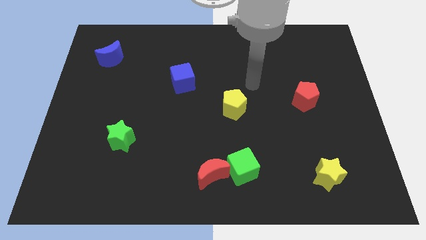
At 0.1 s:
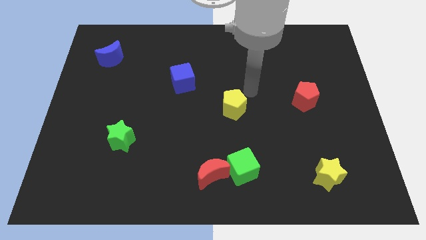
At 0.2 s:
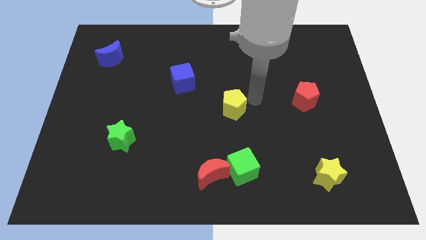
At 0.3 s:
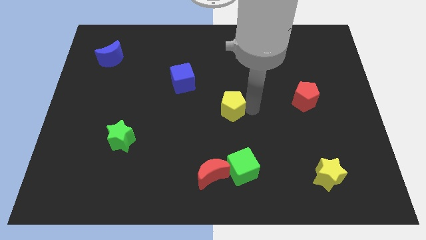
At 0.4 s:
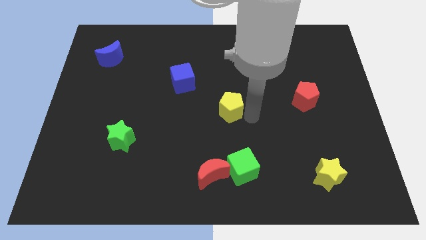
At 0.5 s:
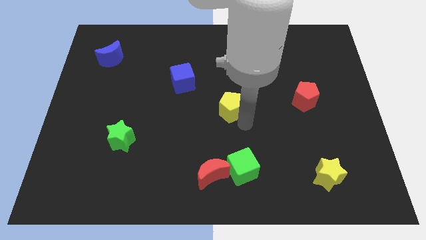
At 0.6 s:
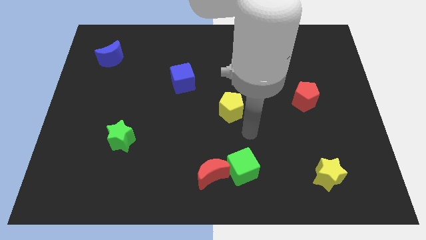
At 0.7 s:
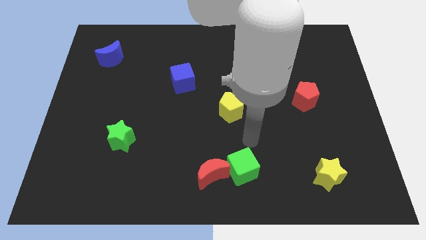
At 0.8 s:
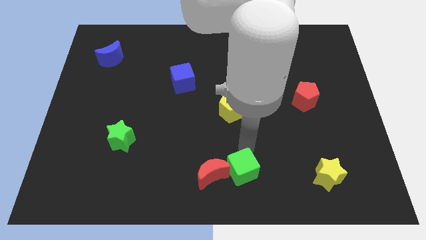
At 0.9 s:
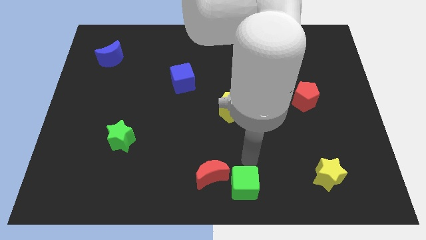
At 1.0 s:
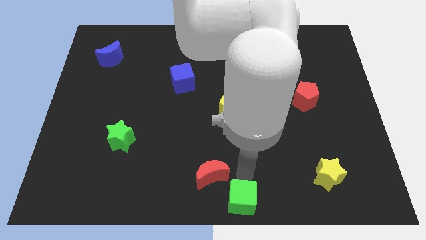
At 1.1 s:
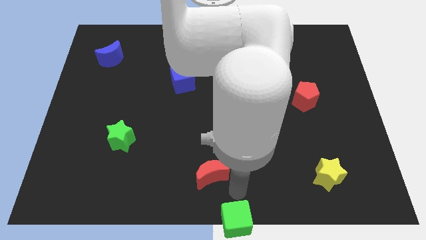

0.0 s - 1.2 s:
move the red moon away from the green cube

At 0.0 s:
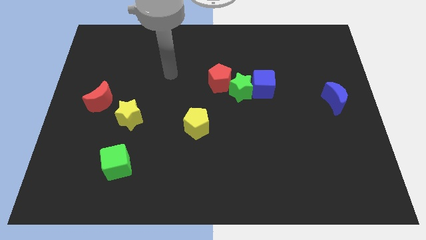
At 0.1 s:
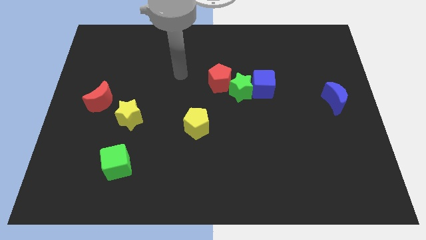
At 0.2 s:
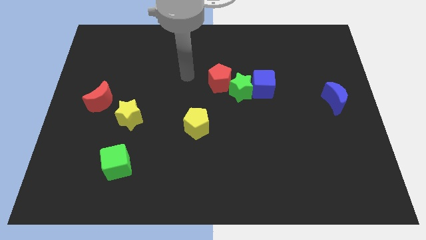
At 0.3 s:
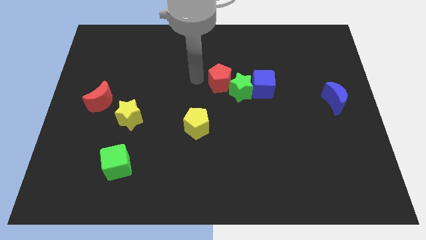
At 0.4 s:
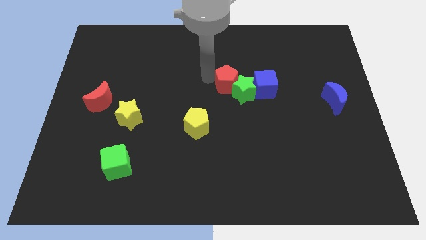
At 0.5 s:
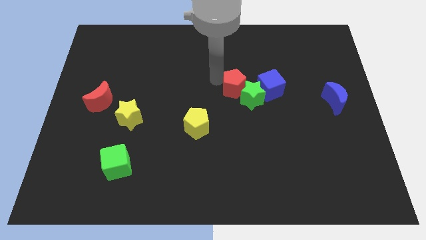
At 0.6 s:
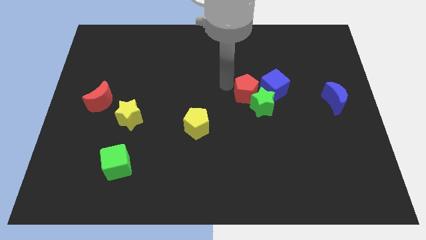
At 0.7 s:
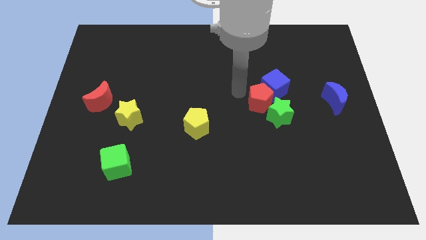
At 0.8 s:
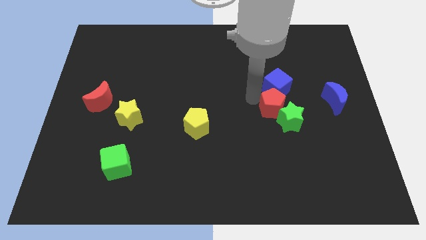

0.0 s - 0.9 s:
separate the blue cube from the green star

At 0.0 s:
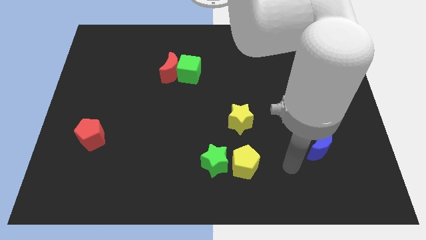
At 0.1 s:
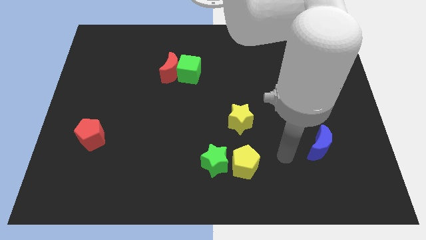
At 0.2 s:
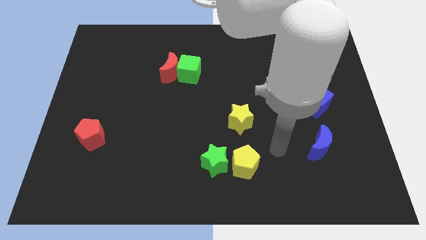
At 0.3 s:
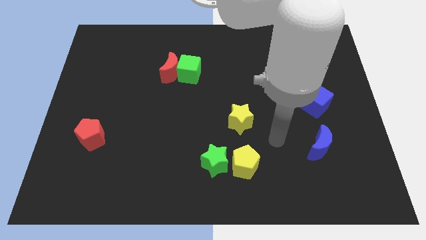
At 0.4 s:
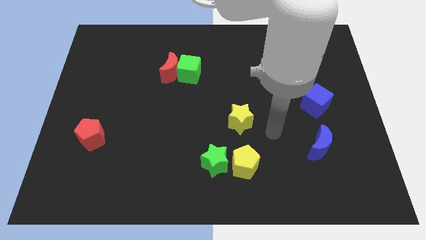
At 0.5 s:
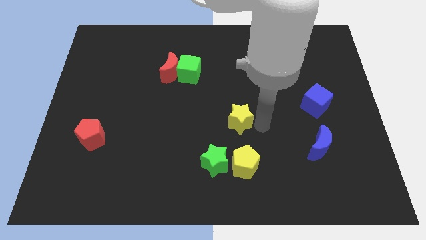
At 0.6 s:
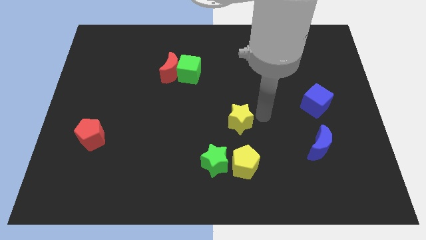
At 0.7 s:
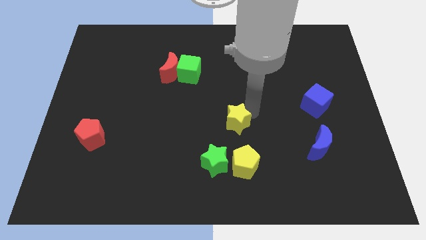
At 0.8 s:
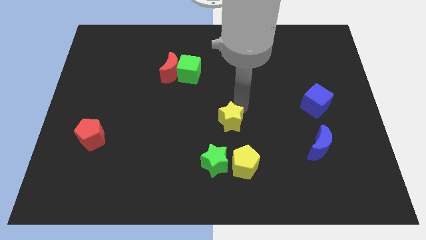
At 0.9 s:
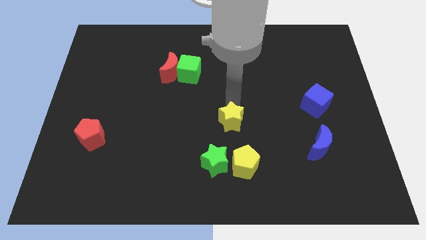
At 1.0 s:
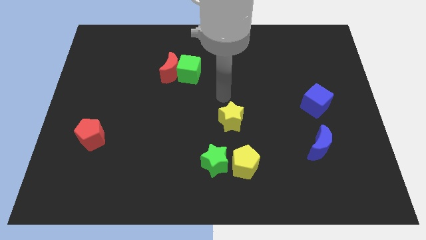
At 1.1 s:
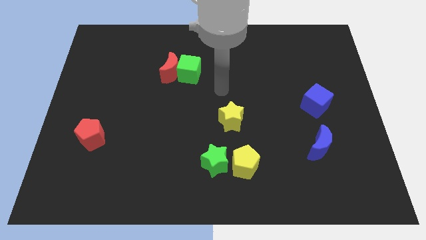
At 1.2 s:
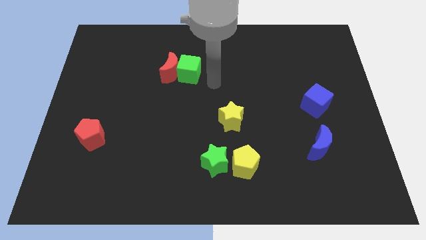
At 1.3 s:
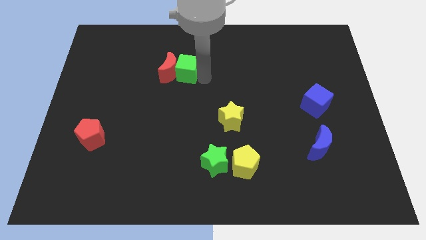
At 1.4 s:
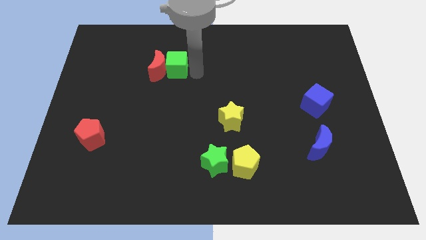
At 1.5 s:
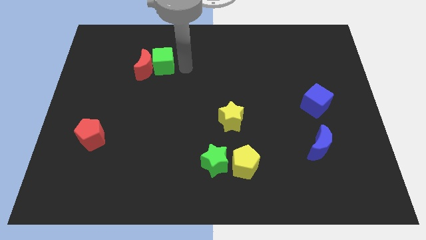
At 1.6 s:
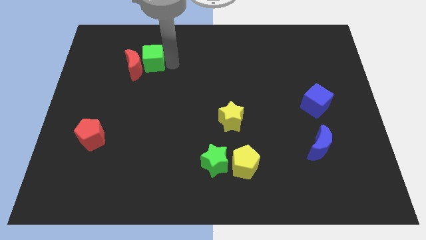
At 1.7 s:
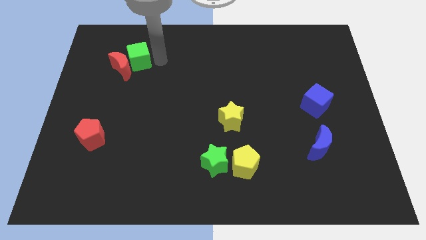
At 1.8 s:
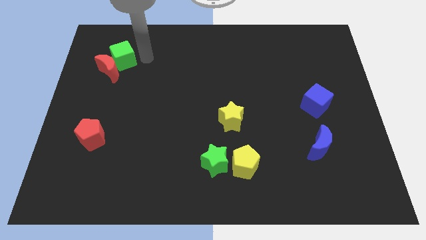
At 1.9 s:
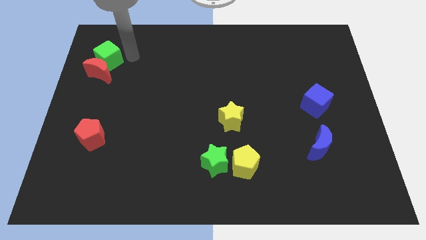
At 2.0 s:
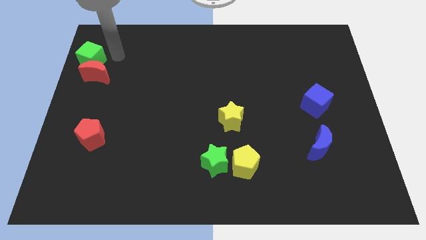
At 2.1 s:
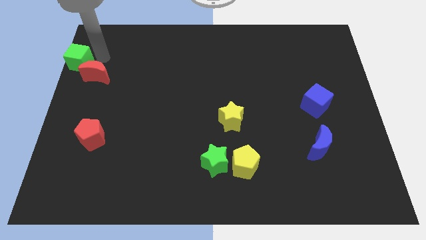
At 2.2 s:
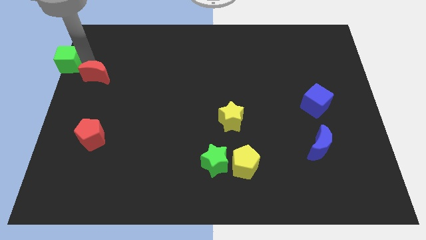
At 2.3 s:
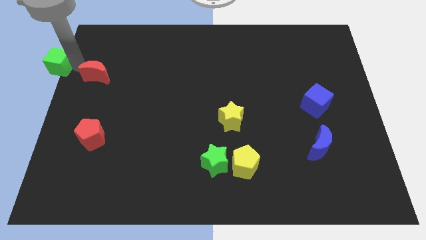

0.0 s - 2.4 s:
pull the red moon apart from the green cube

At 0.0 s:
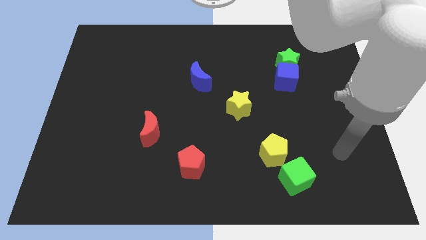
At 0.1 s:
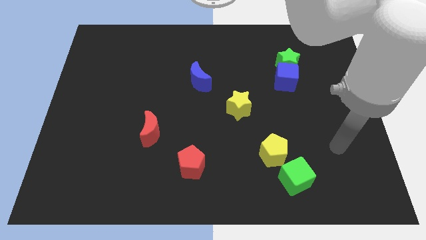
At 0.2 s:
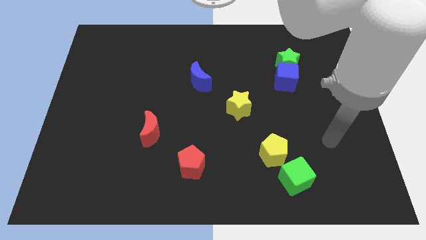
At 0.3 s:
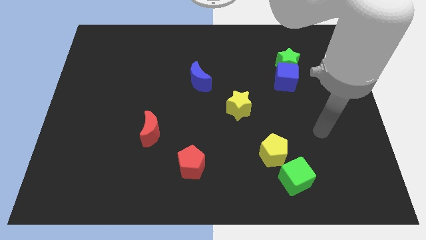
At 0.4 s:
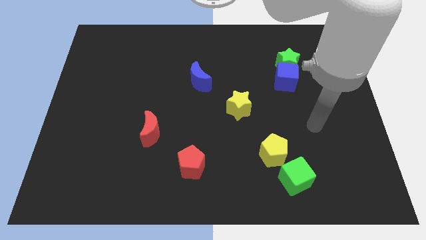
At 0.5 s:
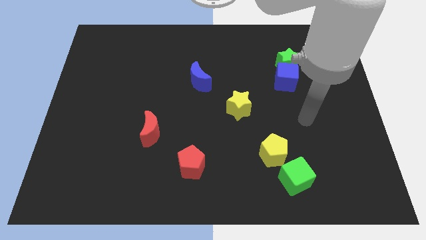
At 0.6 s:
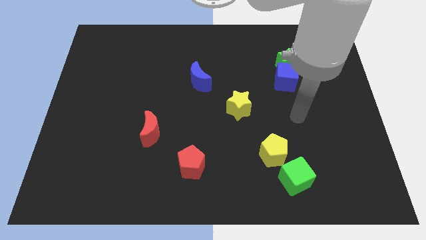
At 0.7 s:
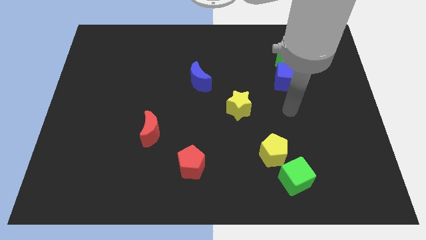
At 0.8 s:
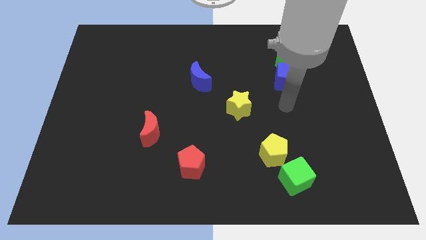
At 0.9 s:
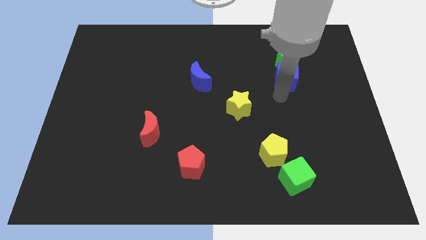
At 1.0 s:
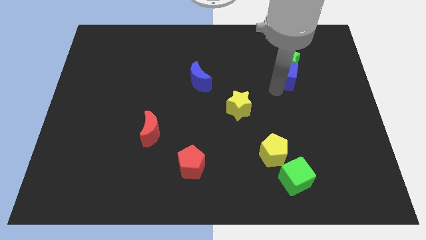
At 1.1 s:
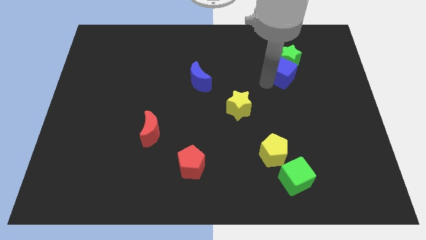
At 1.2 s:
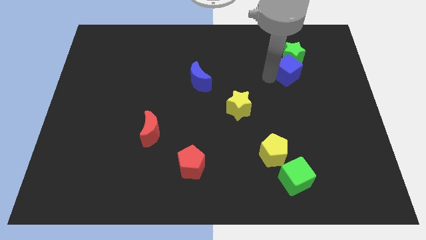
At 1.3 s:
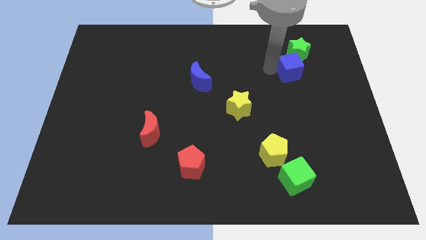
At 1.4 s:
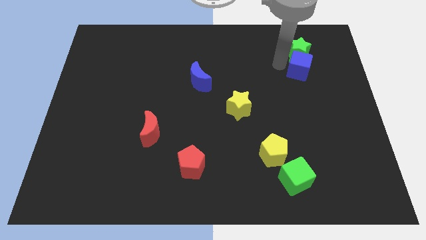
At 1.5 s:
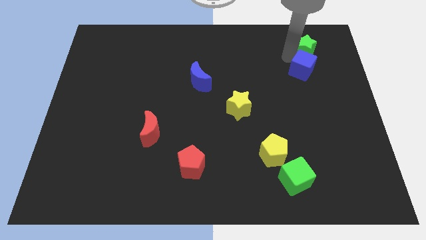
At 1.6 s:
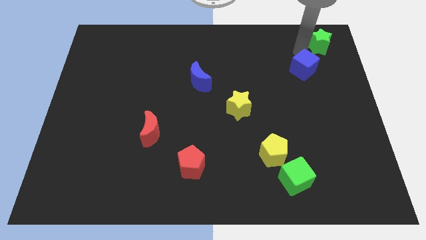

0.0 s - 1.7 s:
pull the blue cube apart from the green star

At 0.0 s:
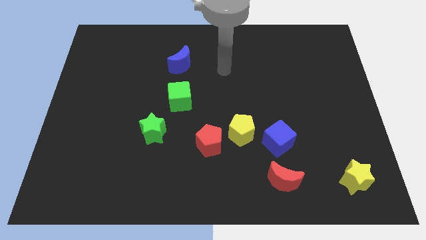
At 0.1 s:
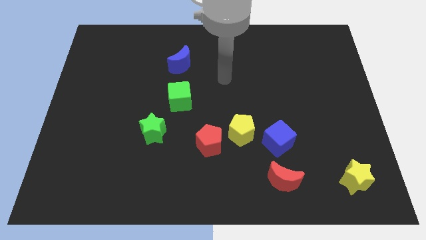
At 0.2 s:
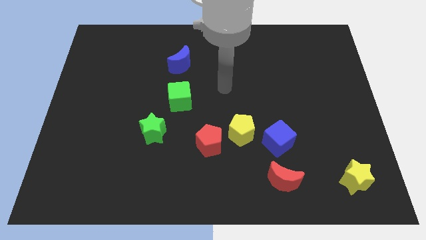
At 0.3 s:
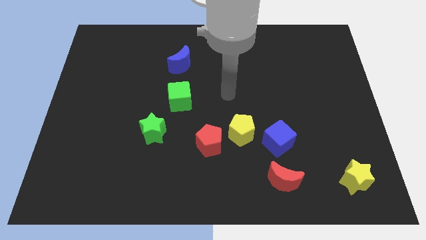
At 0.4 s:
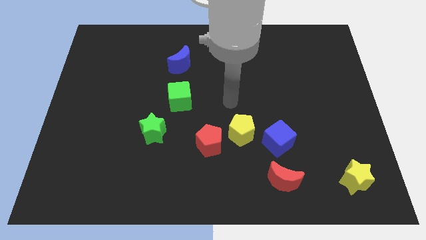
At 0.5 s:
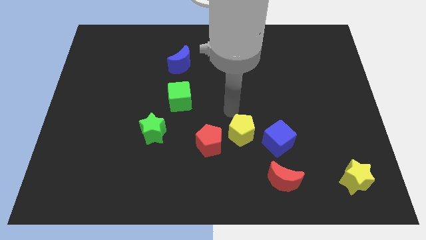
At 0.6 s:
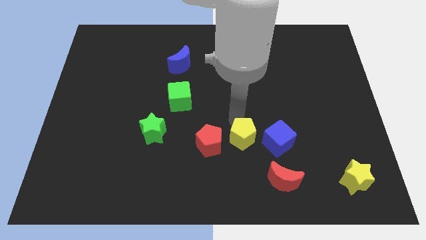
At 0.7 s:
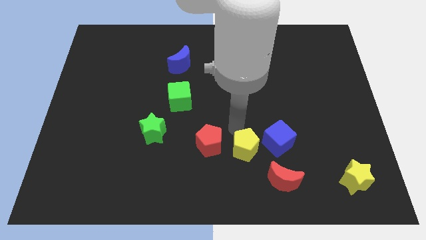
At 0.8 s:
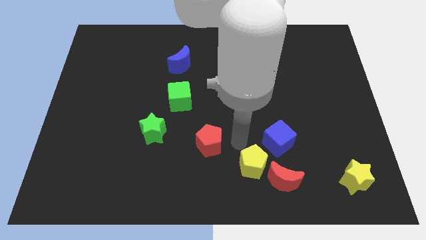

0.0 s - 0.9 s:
move the red pentagon away from the yellow pentagon

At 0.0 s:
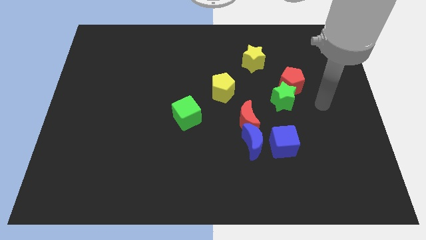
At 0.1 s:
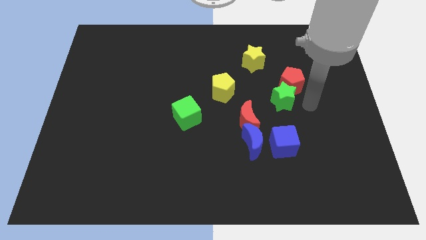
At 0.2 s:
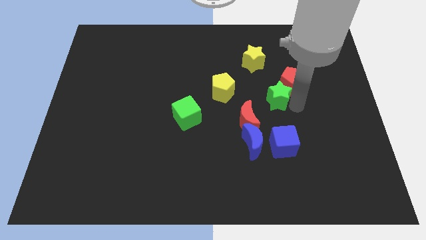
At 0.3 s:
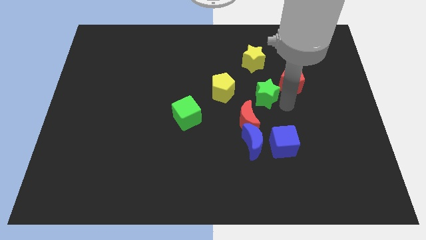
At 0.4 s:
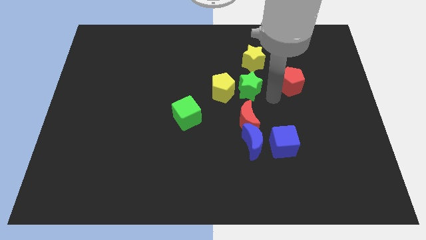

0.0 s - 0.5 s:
separate the red pentagon from the green star

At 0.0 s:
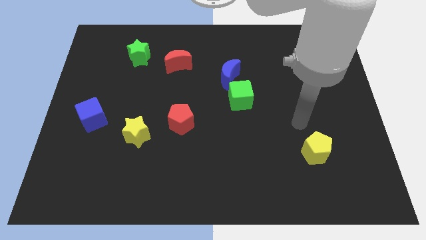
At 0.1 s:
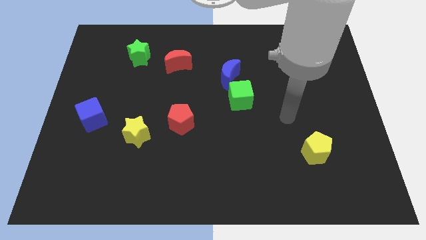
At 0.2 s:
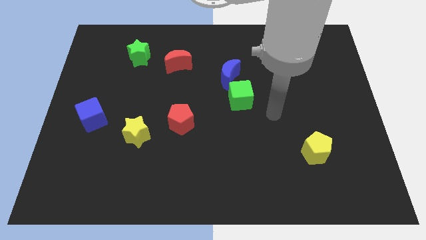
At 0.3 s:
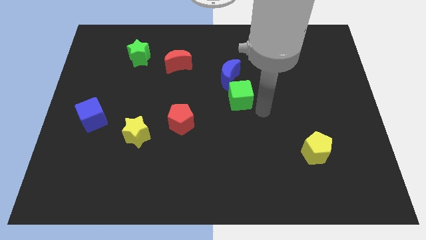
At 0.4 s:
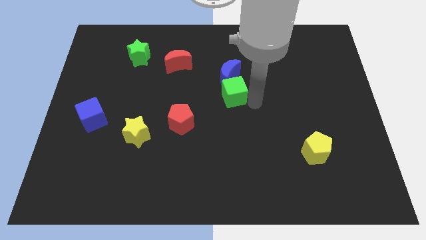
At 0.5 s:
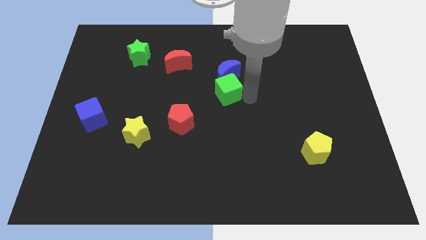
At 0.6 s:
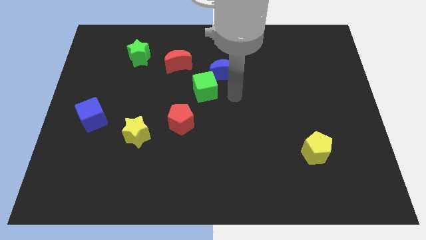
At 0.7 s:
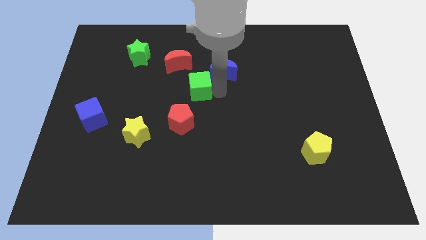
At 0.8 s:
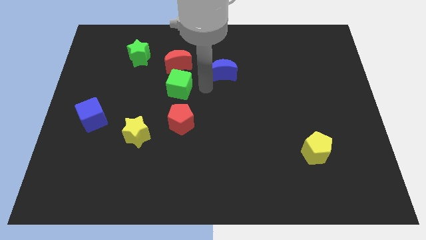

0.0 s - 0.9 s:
pull the blue moon apart from the green cube

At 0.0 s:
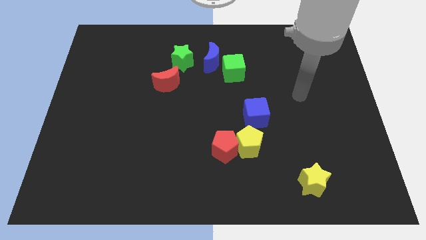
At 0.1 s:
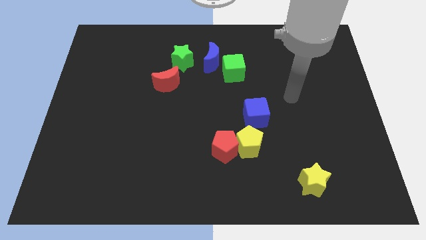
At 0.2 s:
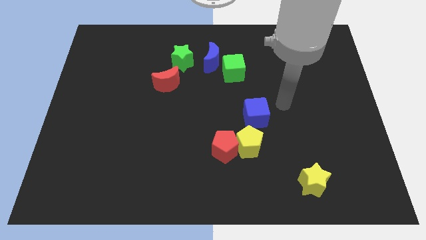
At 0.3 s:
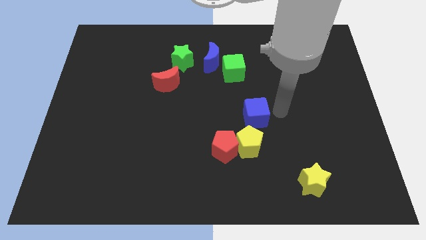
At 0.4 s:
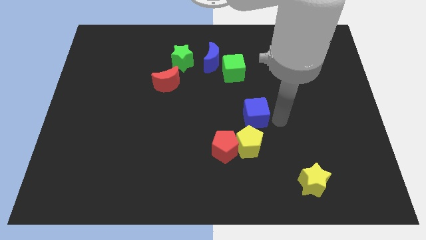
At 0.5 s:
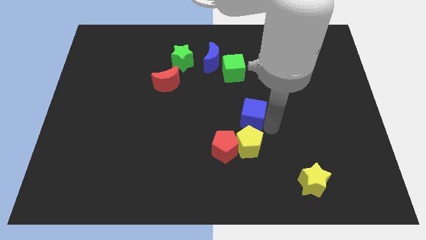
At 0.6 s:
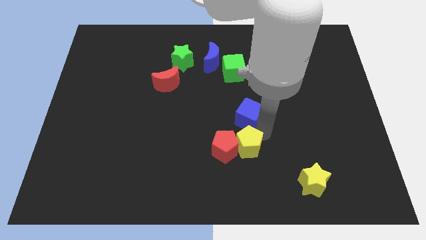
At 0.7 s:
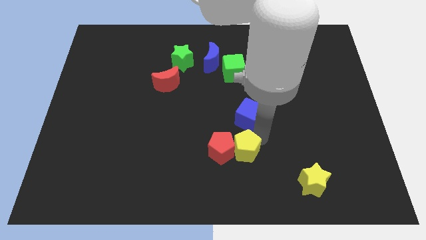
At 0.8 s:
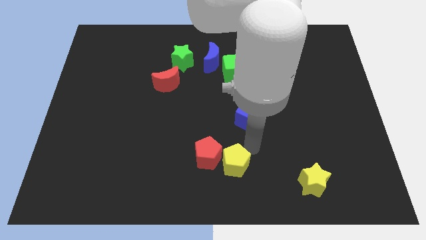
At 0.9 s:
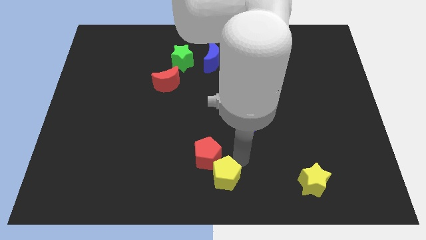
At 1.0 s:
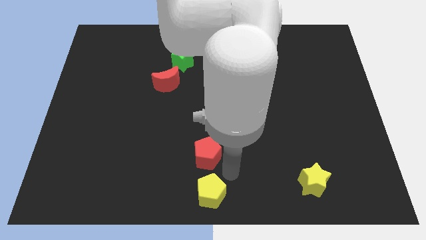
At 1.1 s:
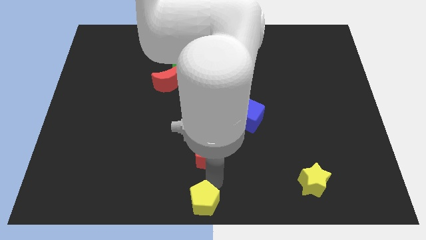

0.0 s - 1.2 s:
pull the red pentagon apart from the yellow pentagon
